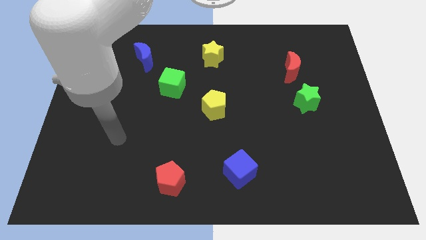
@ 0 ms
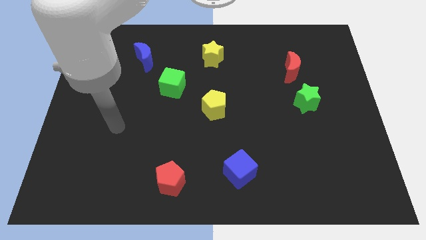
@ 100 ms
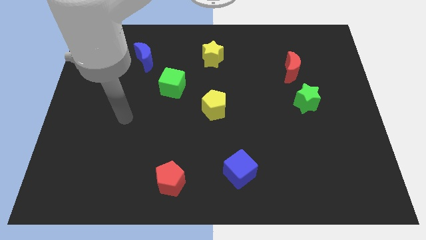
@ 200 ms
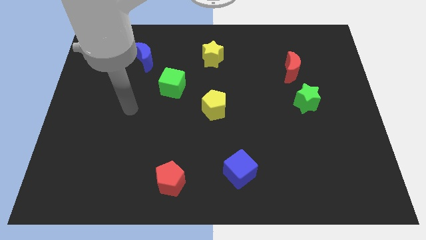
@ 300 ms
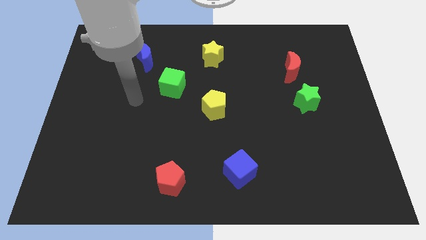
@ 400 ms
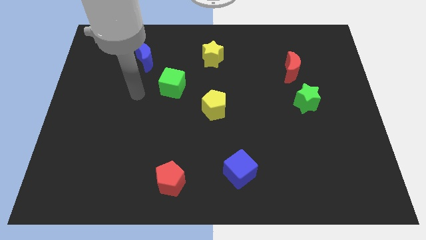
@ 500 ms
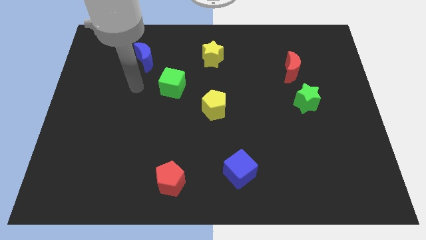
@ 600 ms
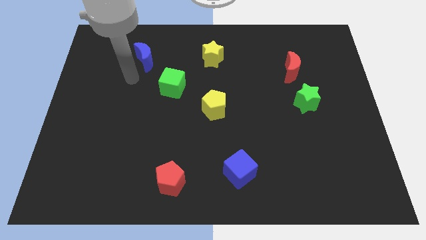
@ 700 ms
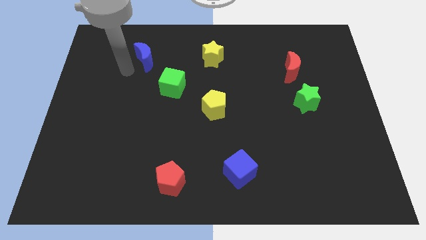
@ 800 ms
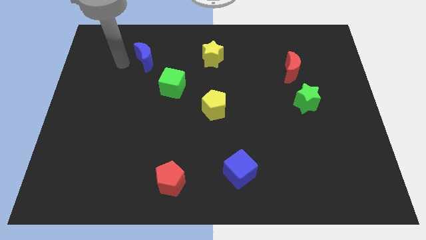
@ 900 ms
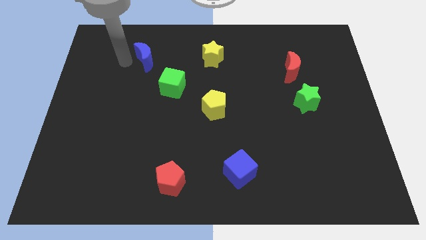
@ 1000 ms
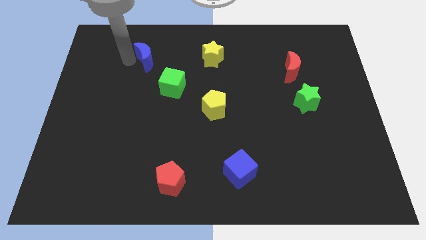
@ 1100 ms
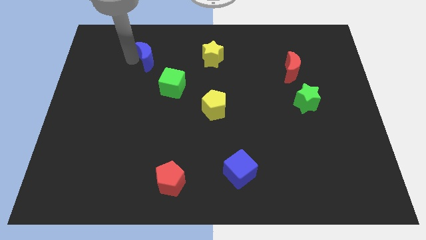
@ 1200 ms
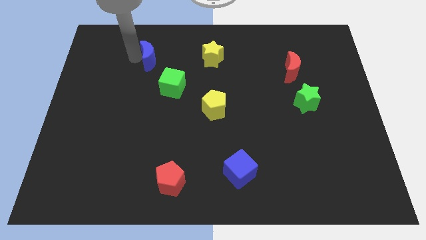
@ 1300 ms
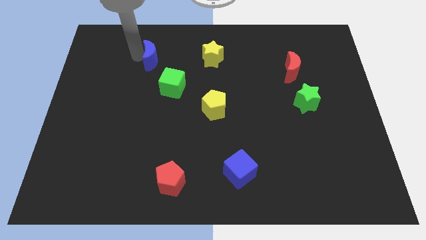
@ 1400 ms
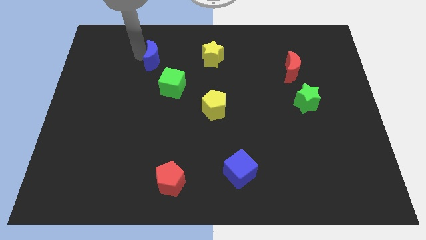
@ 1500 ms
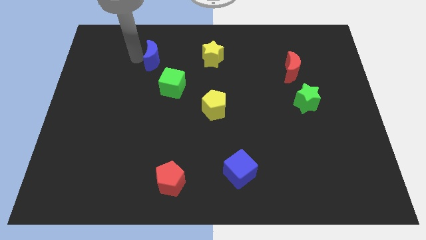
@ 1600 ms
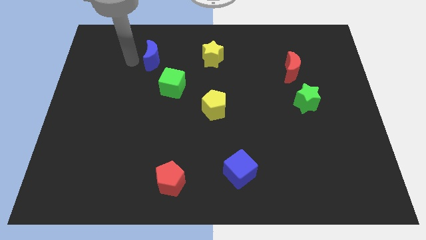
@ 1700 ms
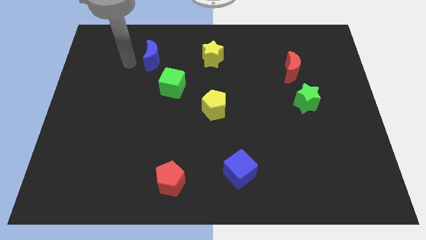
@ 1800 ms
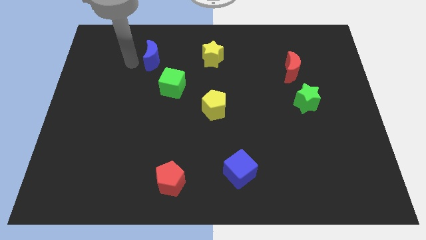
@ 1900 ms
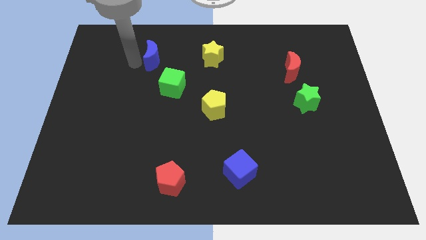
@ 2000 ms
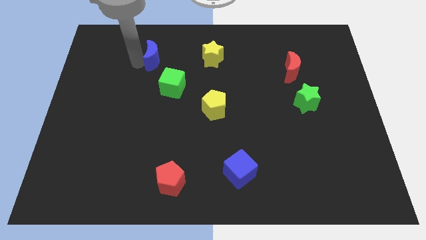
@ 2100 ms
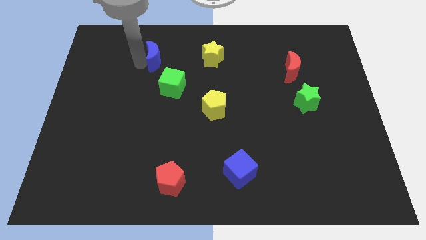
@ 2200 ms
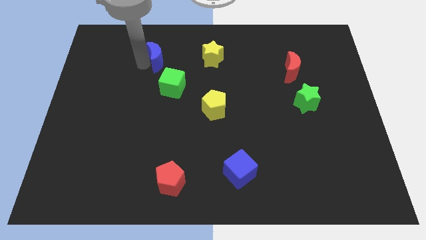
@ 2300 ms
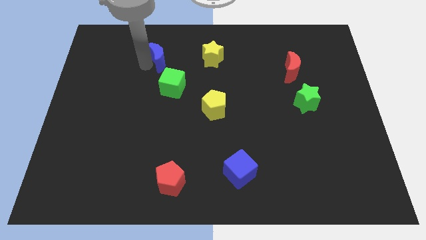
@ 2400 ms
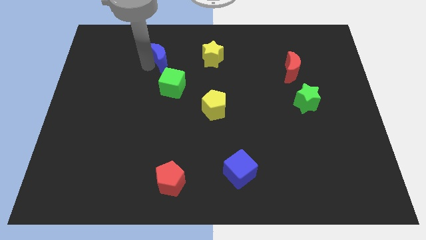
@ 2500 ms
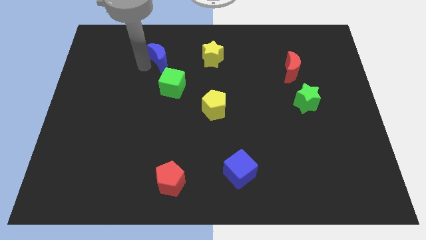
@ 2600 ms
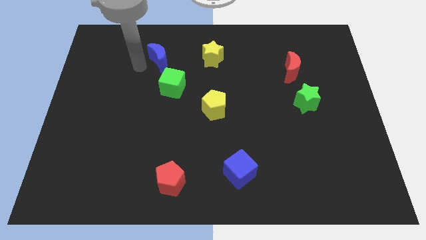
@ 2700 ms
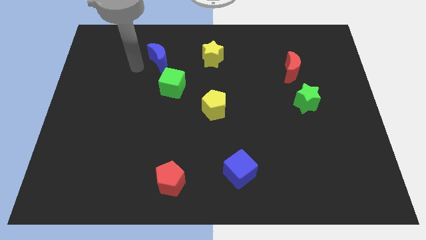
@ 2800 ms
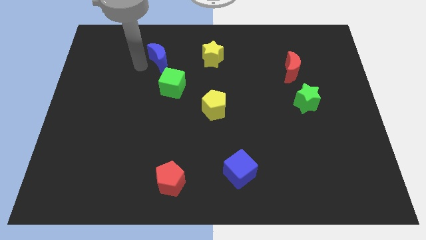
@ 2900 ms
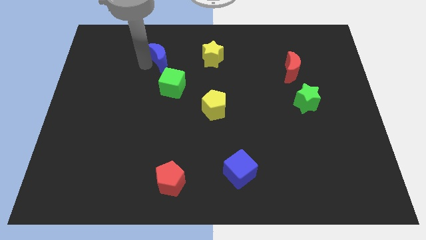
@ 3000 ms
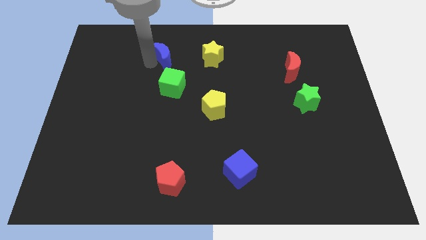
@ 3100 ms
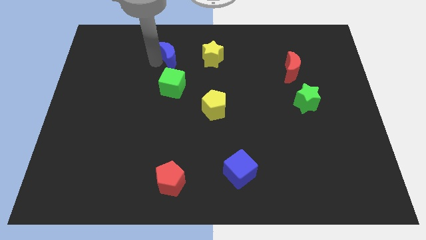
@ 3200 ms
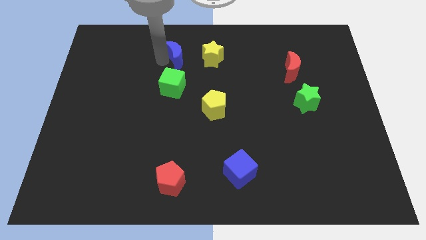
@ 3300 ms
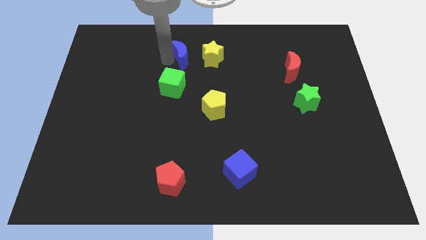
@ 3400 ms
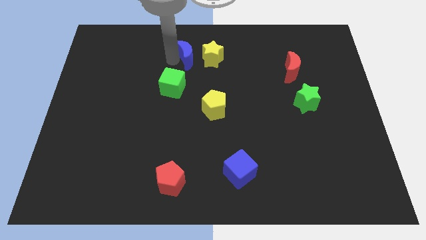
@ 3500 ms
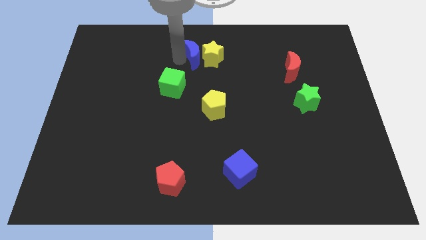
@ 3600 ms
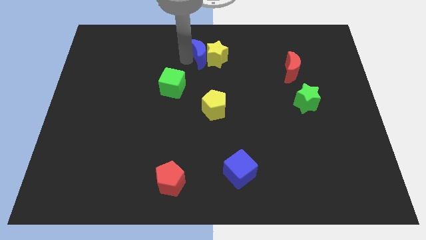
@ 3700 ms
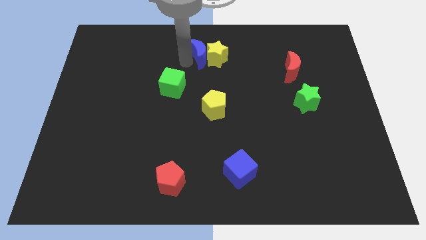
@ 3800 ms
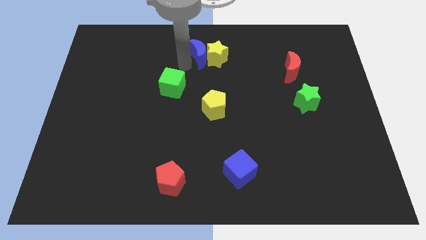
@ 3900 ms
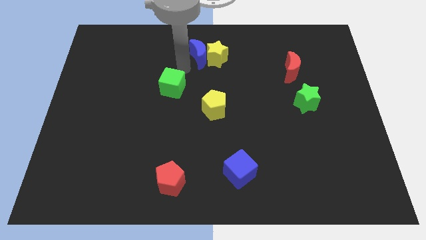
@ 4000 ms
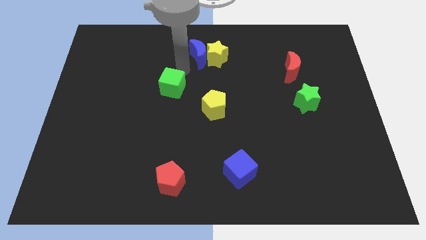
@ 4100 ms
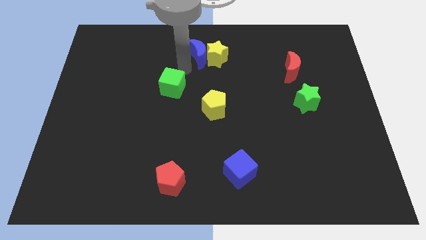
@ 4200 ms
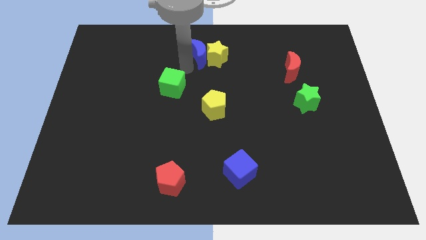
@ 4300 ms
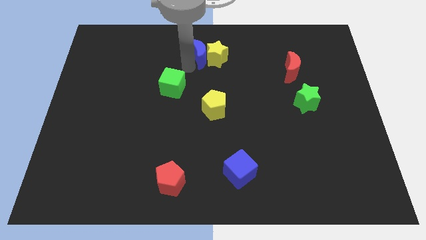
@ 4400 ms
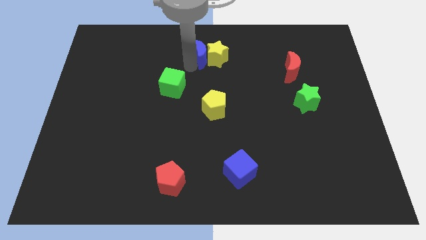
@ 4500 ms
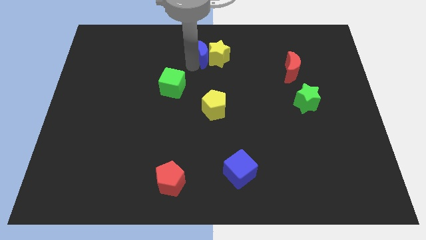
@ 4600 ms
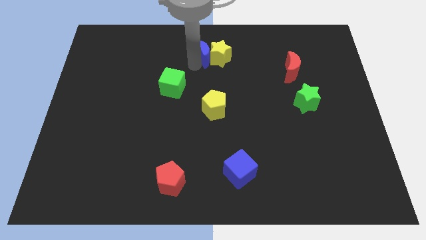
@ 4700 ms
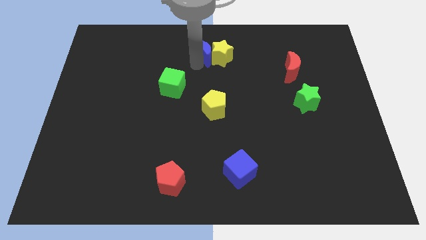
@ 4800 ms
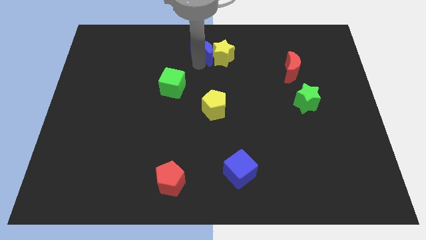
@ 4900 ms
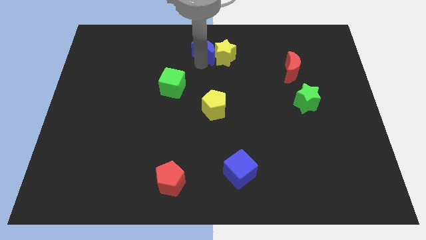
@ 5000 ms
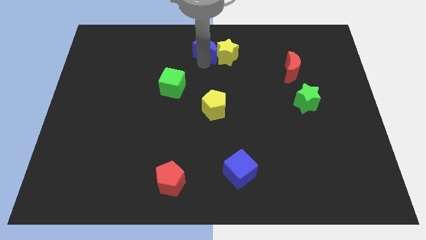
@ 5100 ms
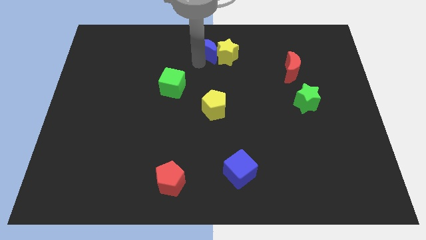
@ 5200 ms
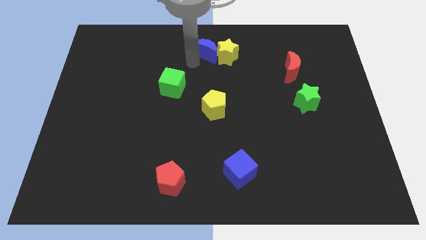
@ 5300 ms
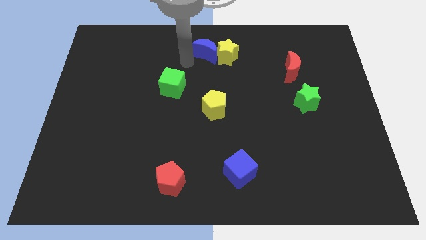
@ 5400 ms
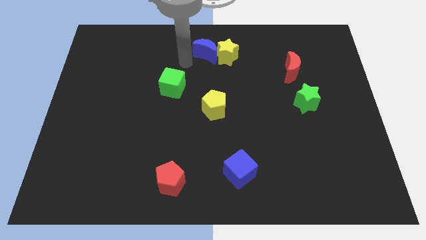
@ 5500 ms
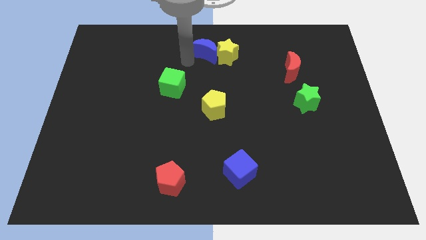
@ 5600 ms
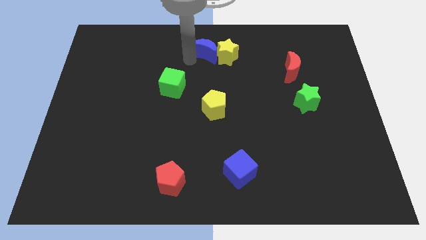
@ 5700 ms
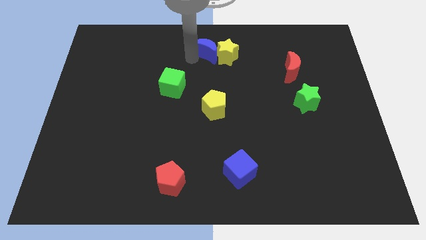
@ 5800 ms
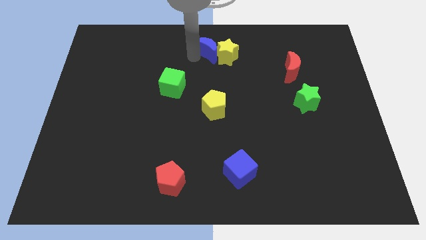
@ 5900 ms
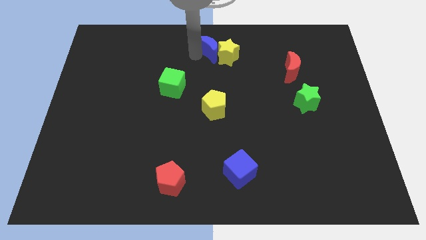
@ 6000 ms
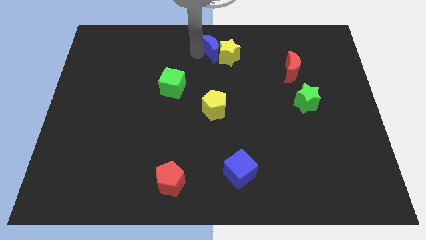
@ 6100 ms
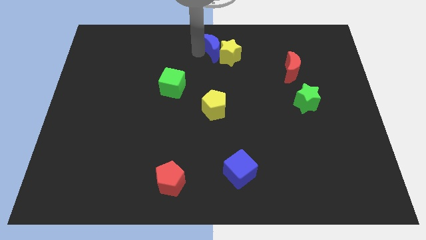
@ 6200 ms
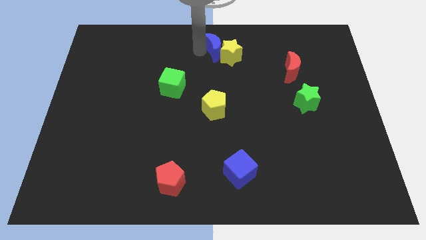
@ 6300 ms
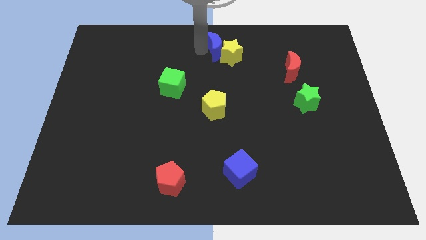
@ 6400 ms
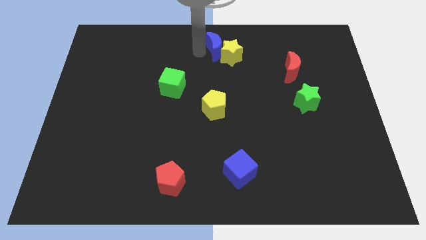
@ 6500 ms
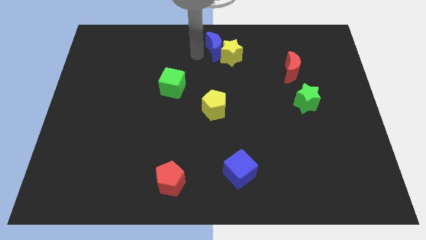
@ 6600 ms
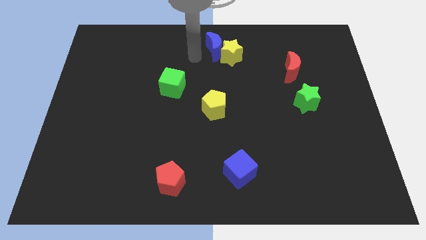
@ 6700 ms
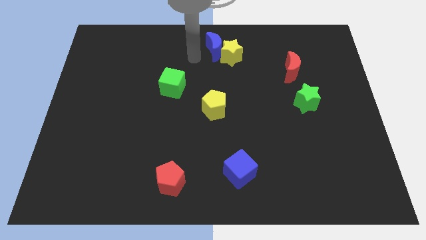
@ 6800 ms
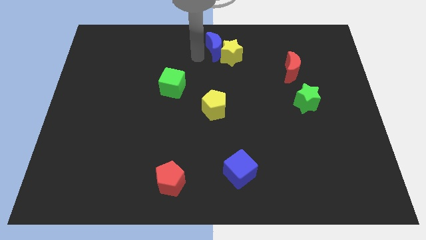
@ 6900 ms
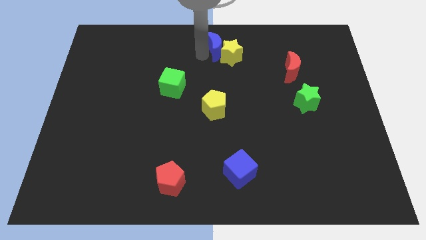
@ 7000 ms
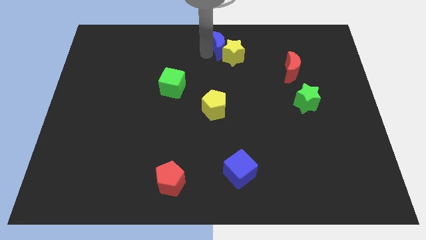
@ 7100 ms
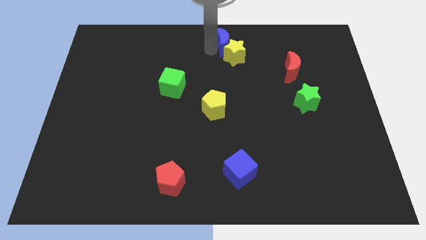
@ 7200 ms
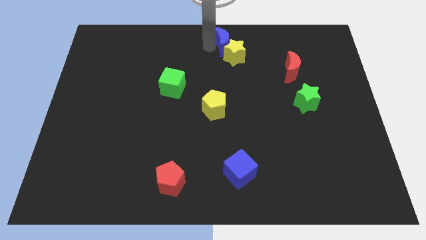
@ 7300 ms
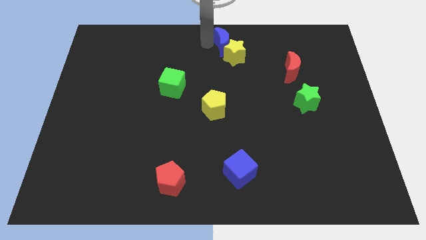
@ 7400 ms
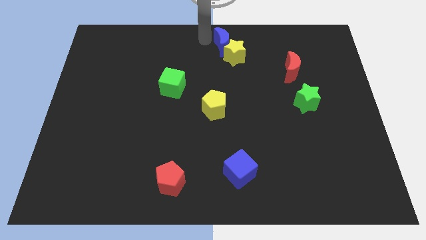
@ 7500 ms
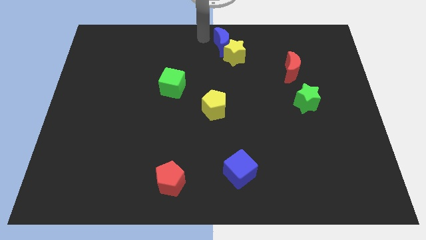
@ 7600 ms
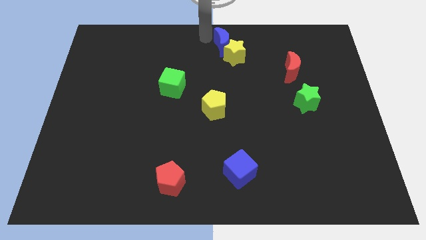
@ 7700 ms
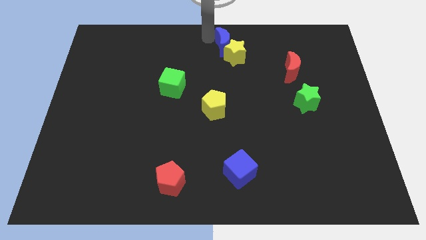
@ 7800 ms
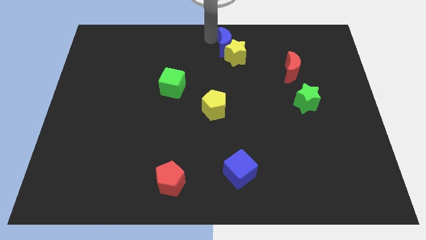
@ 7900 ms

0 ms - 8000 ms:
slide the blue moon to the right
